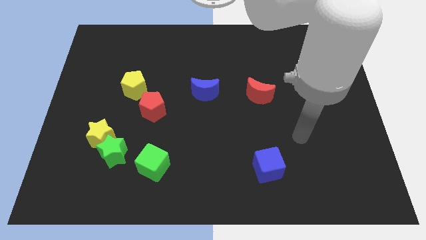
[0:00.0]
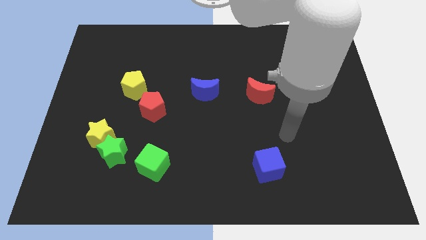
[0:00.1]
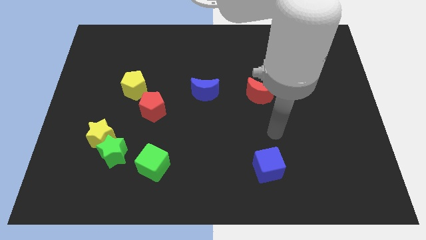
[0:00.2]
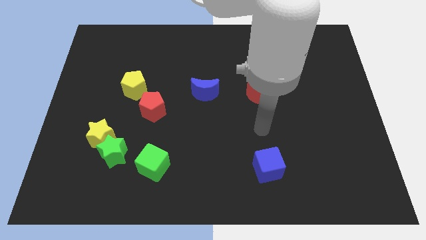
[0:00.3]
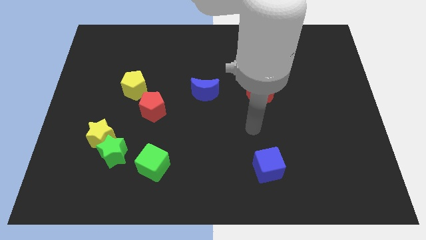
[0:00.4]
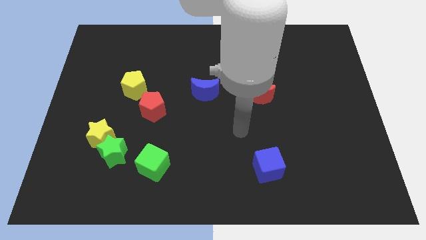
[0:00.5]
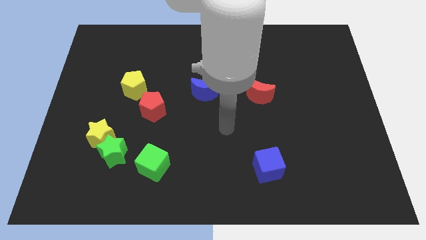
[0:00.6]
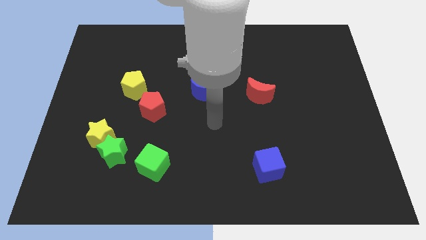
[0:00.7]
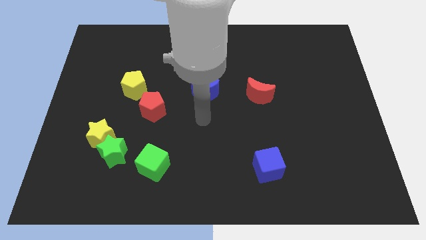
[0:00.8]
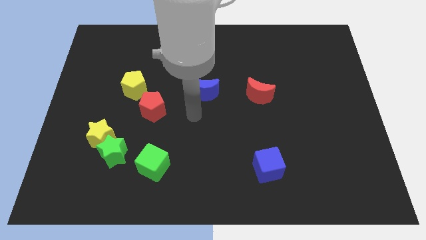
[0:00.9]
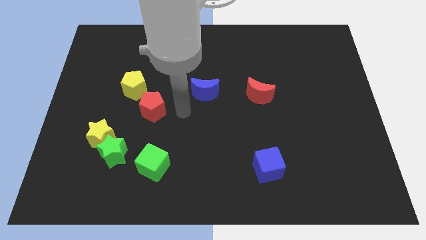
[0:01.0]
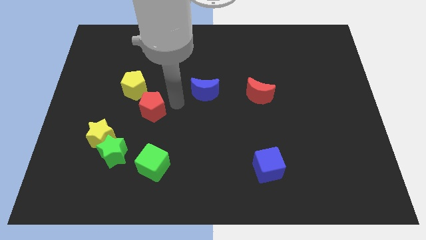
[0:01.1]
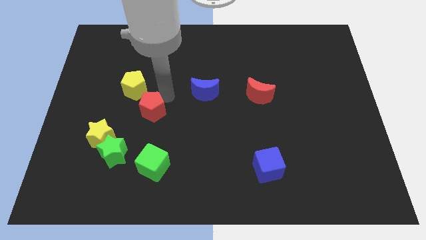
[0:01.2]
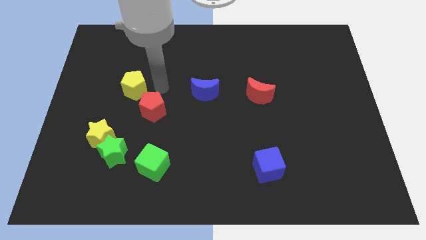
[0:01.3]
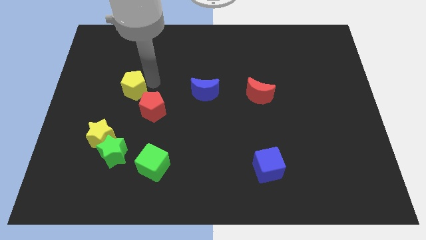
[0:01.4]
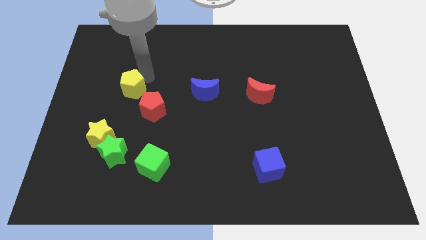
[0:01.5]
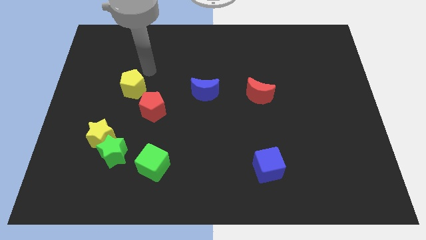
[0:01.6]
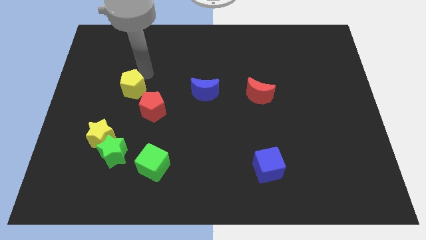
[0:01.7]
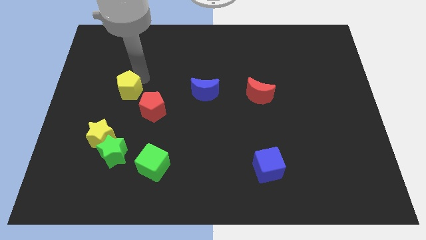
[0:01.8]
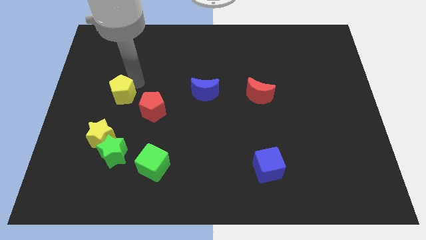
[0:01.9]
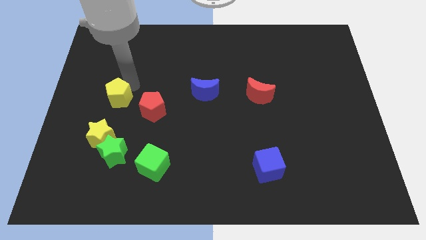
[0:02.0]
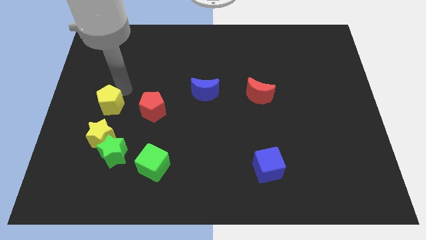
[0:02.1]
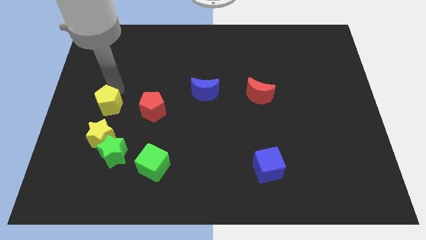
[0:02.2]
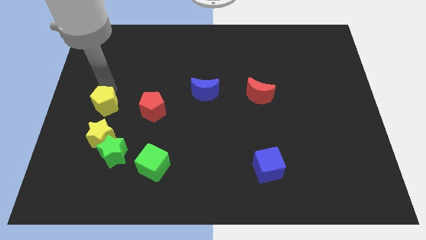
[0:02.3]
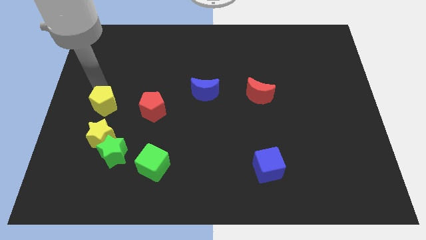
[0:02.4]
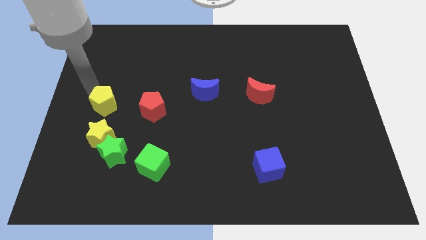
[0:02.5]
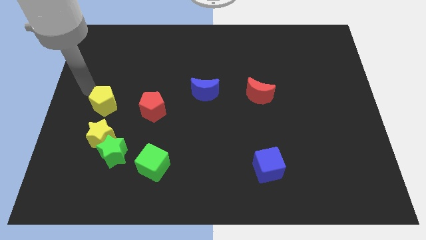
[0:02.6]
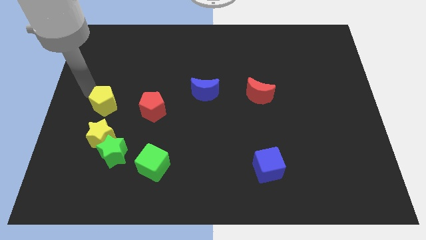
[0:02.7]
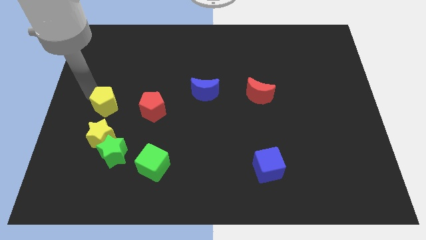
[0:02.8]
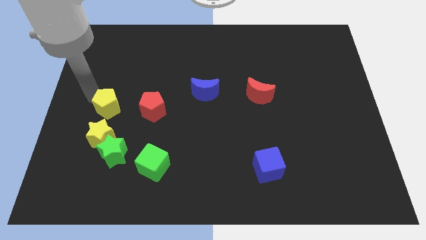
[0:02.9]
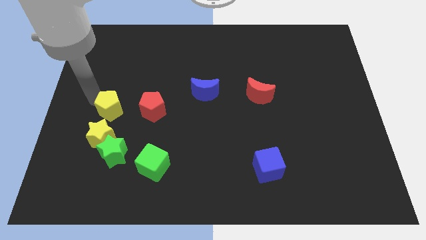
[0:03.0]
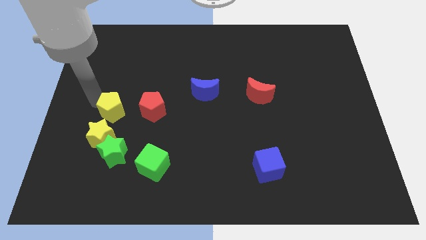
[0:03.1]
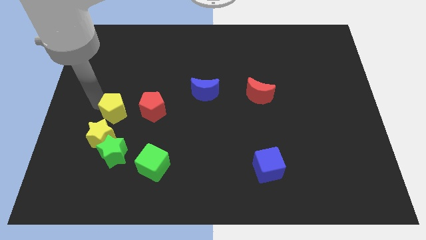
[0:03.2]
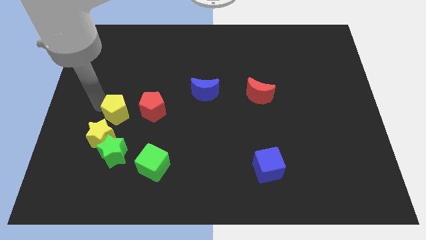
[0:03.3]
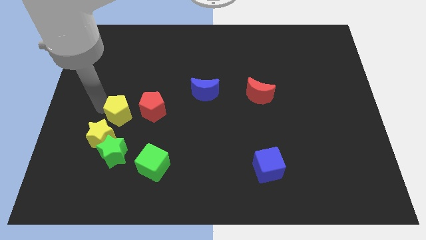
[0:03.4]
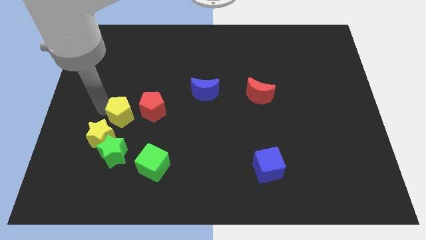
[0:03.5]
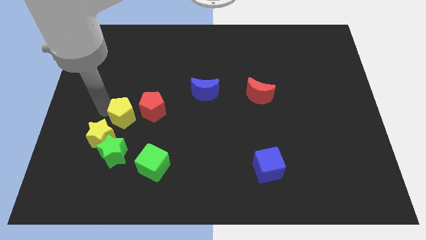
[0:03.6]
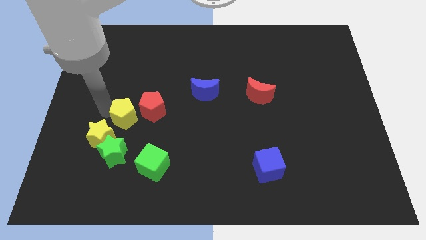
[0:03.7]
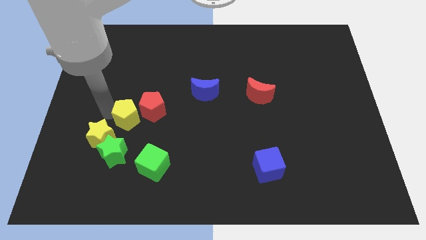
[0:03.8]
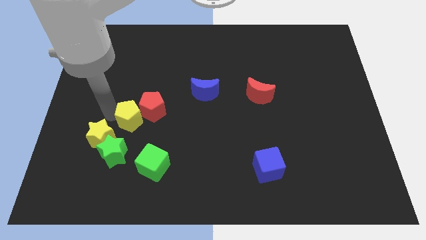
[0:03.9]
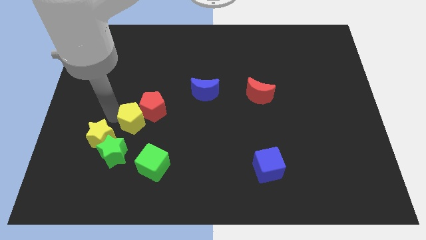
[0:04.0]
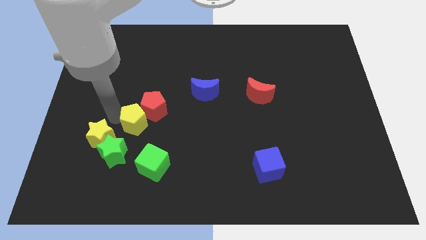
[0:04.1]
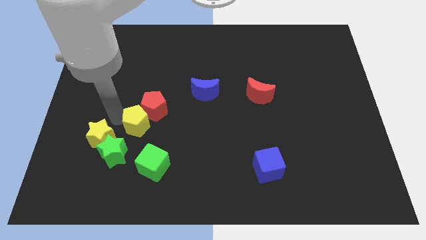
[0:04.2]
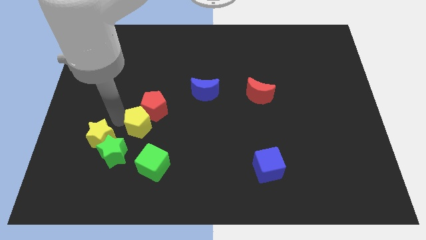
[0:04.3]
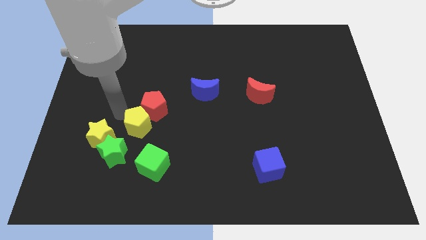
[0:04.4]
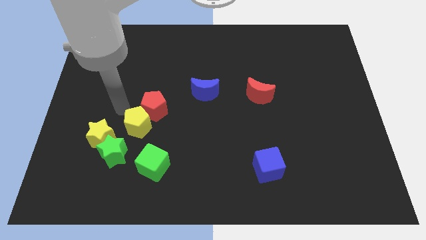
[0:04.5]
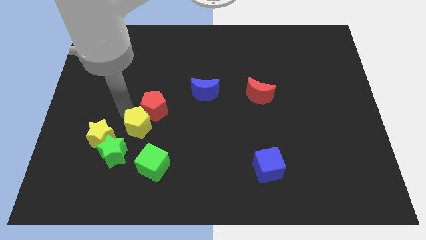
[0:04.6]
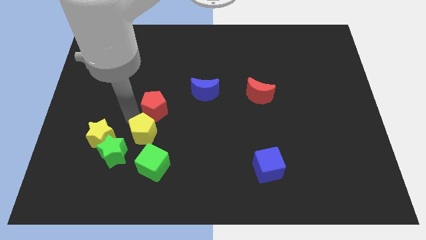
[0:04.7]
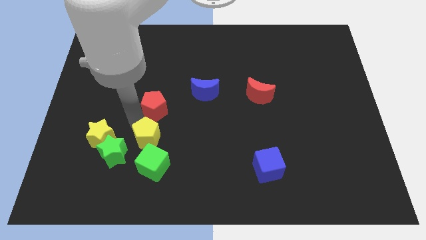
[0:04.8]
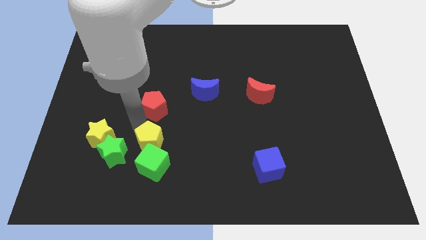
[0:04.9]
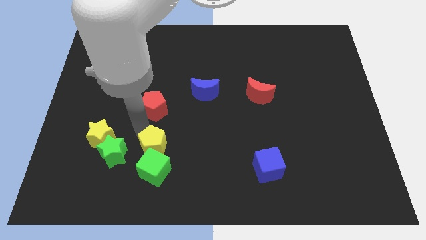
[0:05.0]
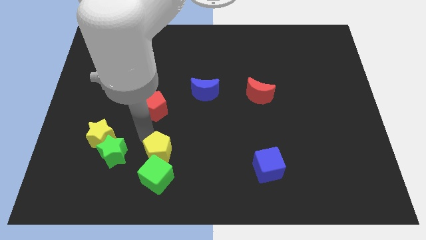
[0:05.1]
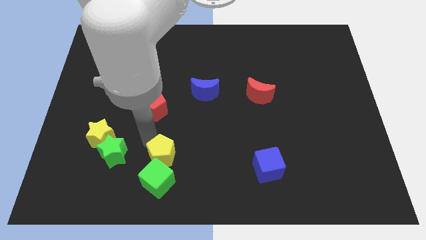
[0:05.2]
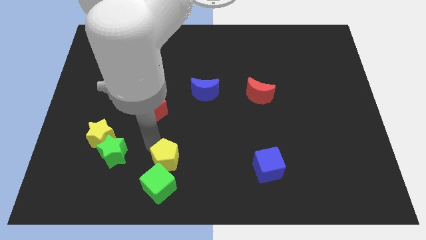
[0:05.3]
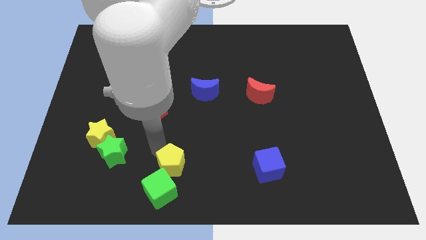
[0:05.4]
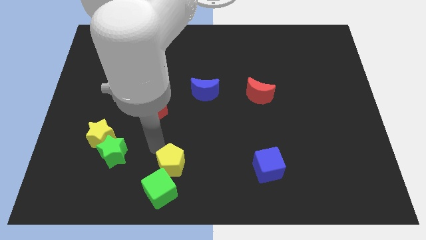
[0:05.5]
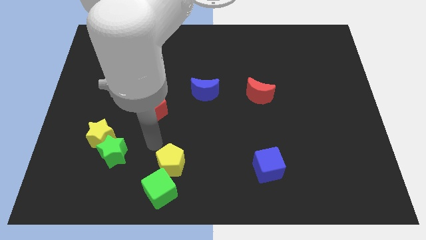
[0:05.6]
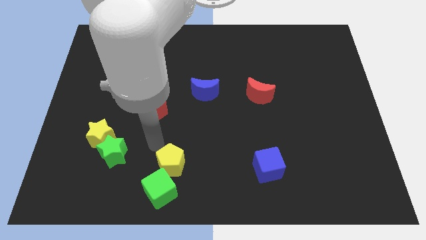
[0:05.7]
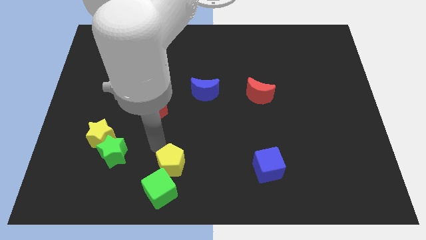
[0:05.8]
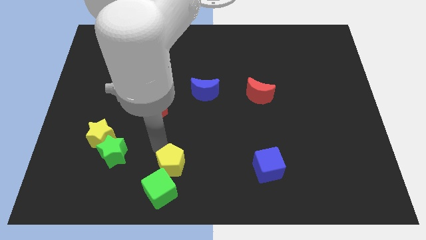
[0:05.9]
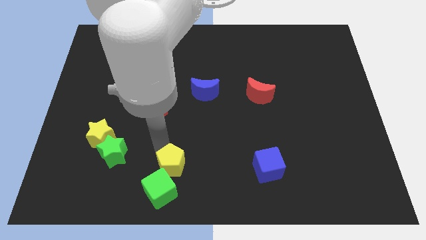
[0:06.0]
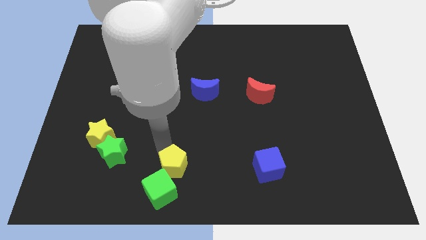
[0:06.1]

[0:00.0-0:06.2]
slide the yellow pentagon to the bottom side

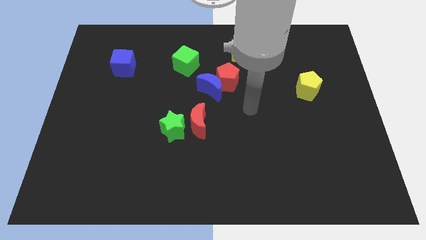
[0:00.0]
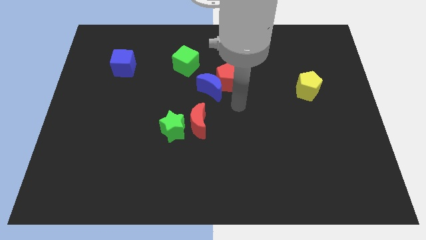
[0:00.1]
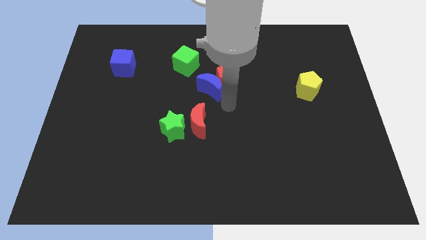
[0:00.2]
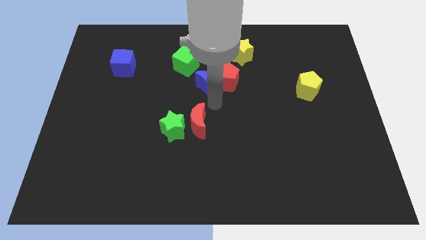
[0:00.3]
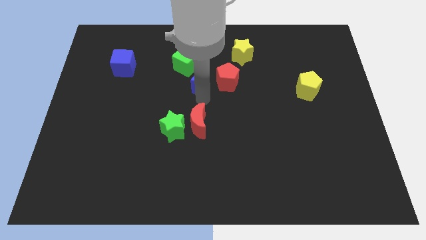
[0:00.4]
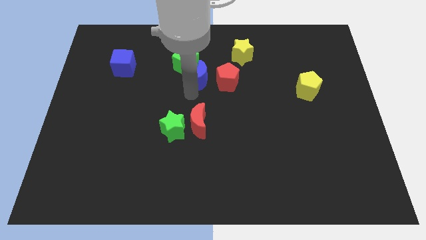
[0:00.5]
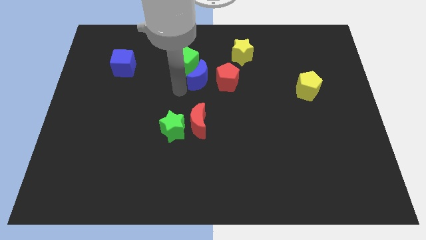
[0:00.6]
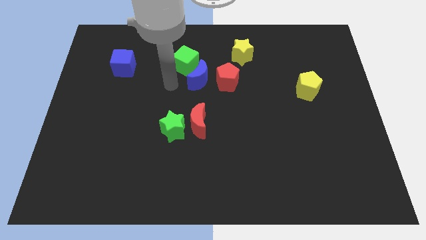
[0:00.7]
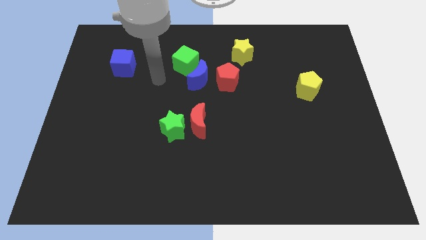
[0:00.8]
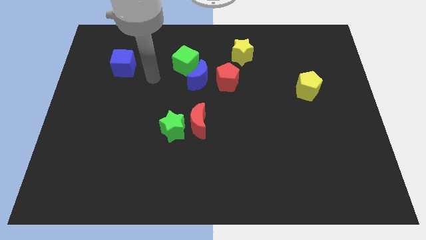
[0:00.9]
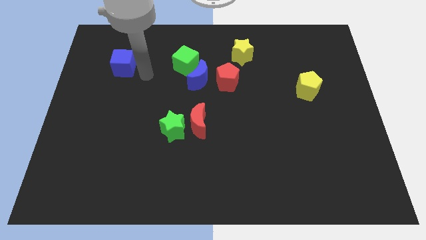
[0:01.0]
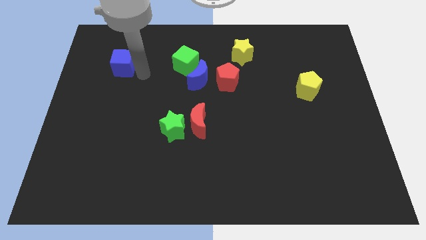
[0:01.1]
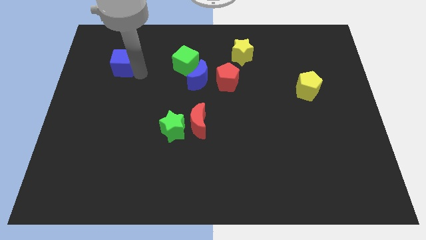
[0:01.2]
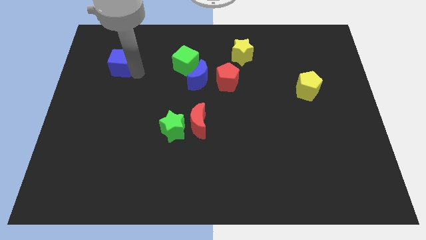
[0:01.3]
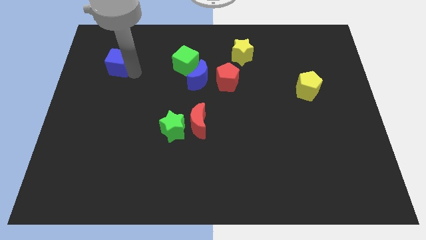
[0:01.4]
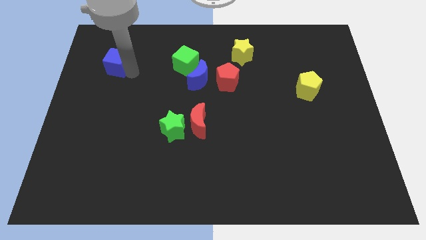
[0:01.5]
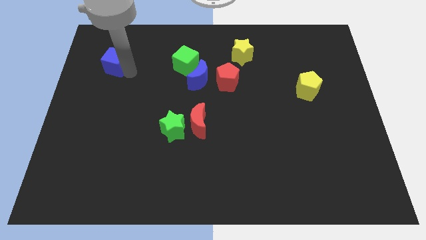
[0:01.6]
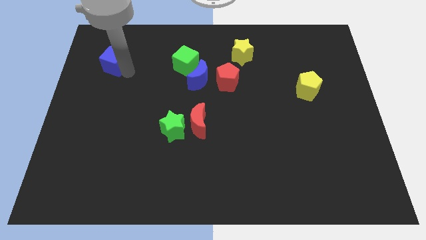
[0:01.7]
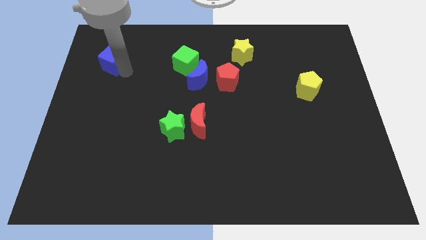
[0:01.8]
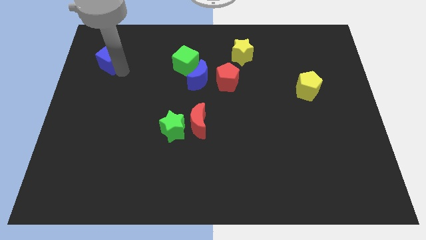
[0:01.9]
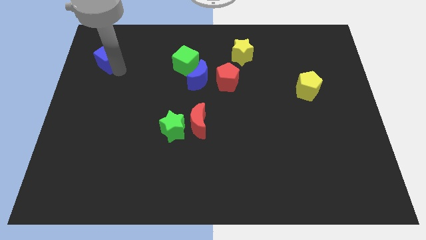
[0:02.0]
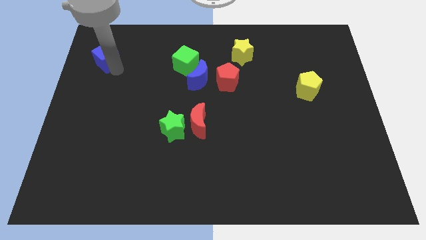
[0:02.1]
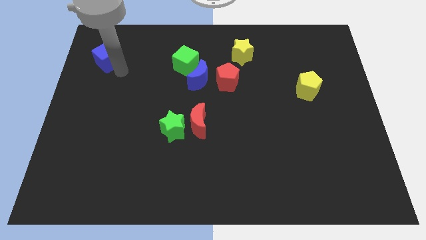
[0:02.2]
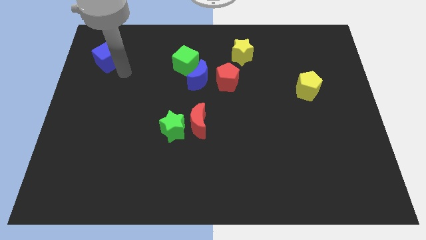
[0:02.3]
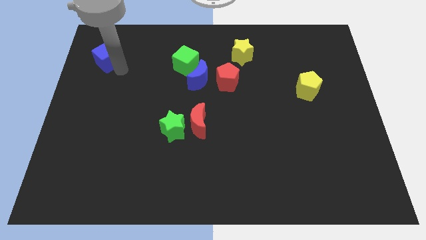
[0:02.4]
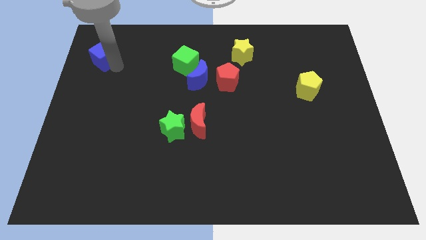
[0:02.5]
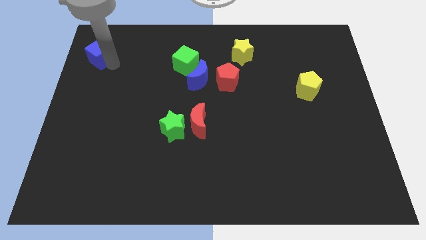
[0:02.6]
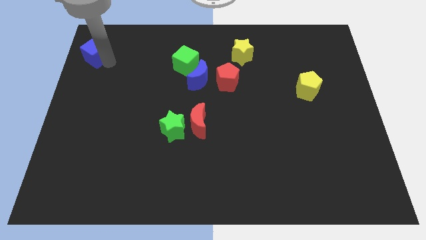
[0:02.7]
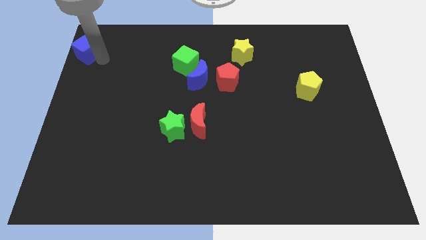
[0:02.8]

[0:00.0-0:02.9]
move the blue cube to the upper left corner
